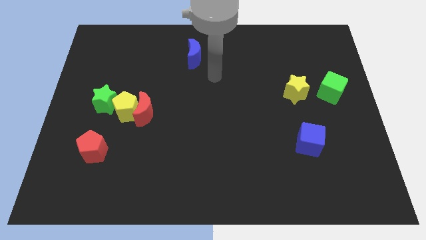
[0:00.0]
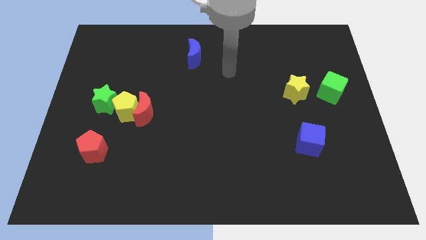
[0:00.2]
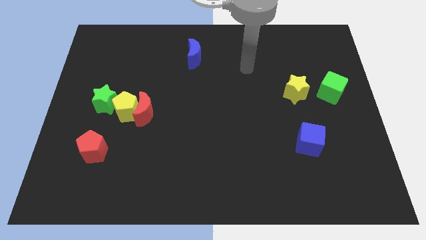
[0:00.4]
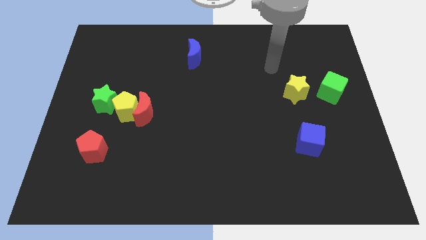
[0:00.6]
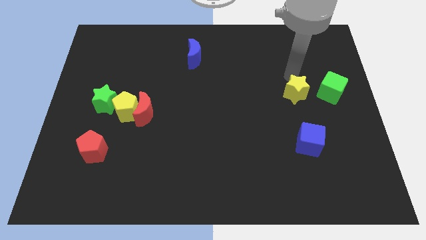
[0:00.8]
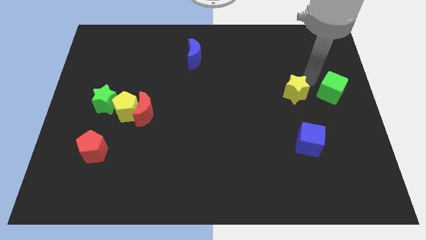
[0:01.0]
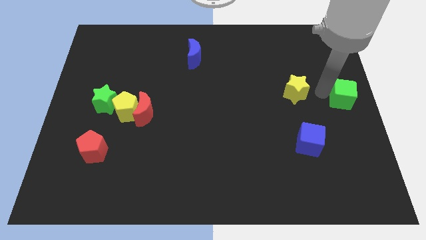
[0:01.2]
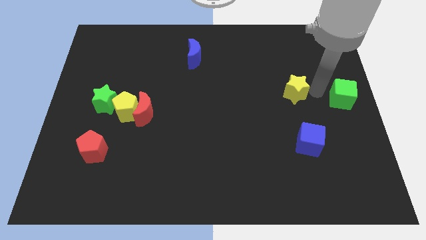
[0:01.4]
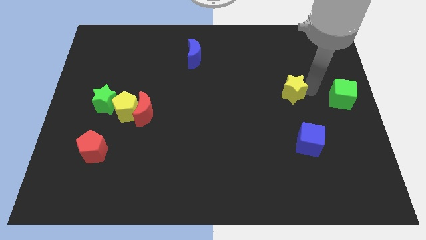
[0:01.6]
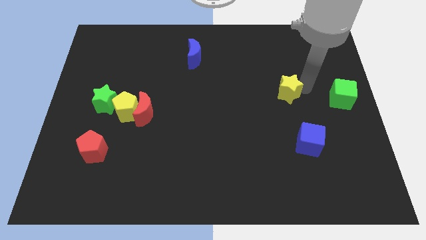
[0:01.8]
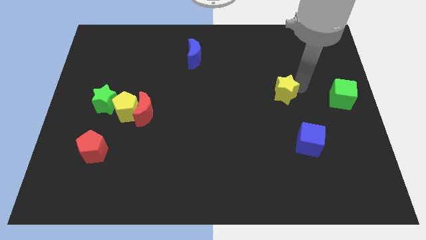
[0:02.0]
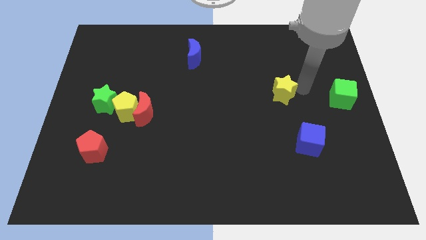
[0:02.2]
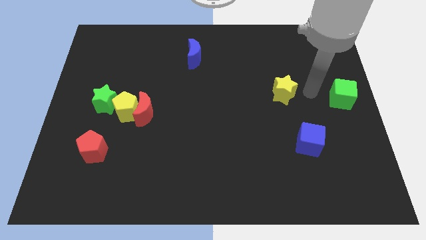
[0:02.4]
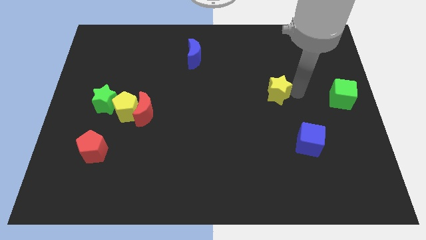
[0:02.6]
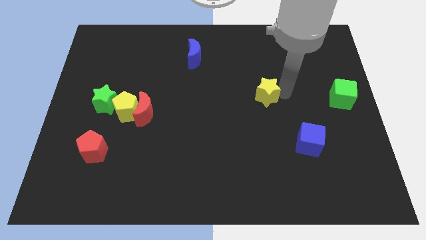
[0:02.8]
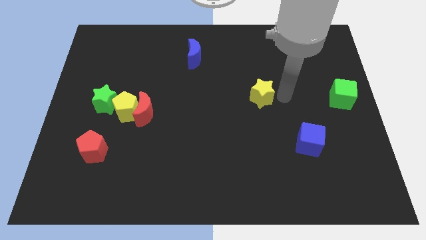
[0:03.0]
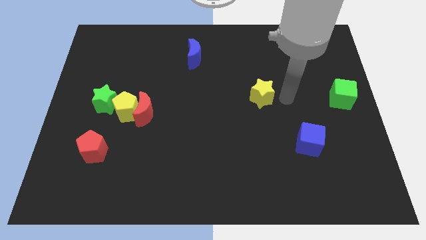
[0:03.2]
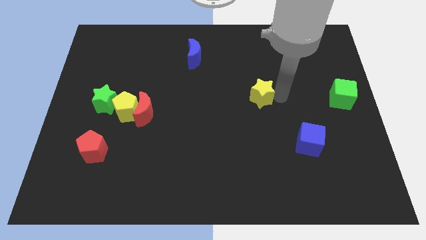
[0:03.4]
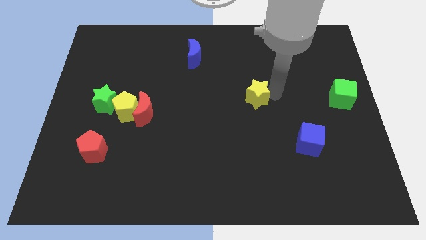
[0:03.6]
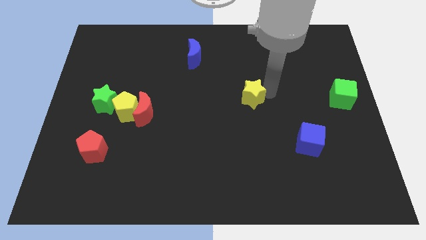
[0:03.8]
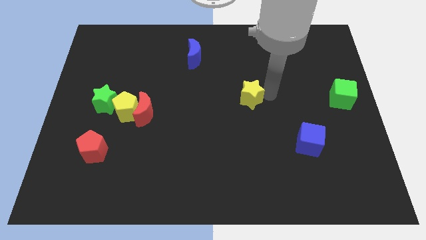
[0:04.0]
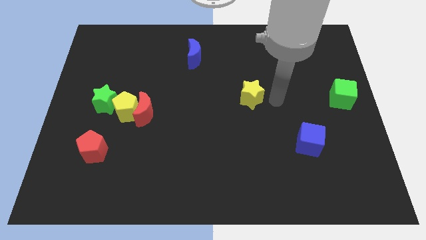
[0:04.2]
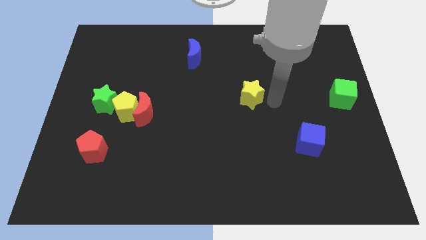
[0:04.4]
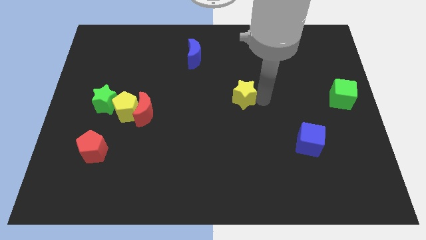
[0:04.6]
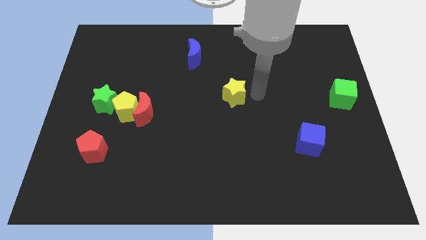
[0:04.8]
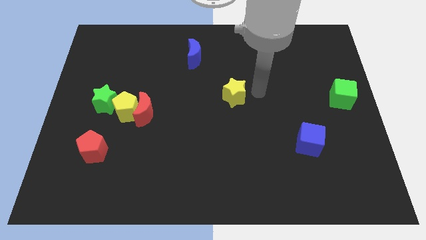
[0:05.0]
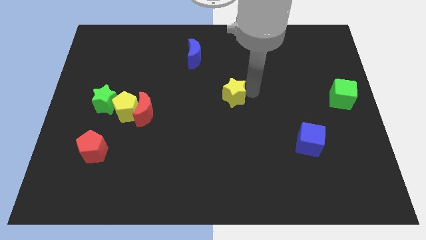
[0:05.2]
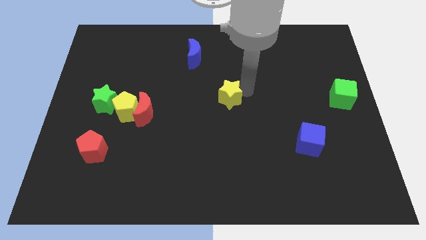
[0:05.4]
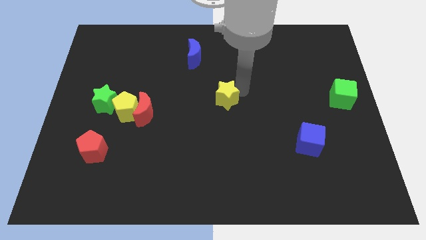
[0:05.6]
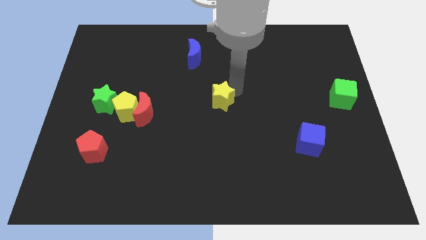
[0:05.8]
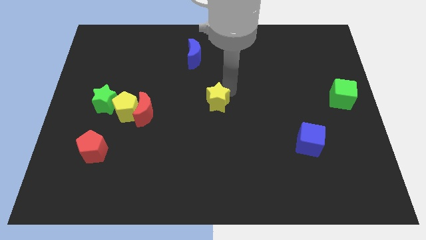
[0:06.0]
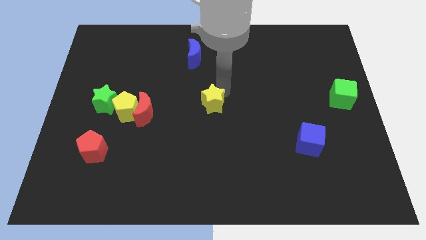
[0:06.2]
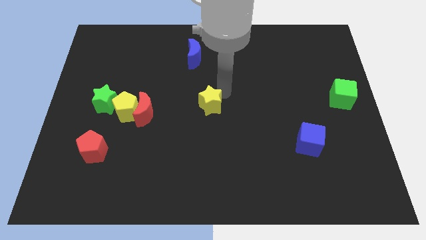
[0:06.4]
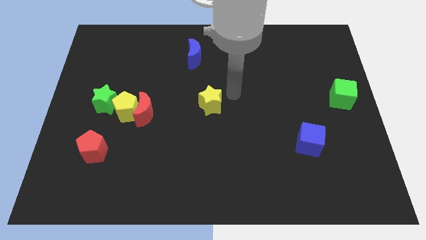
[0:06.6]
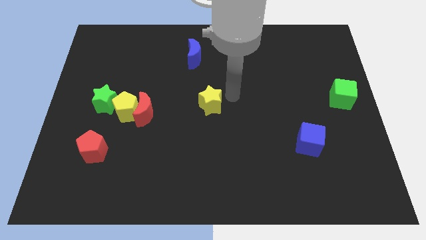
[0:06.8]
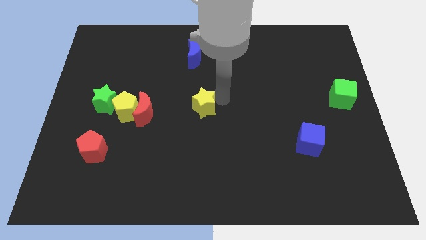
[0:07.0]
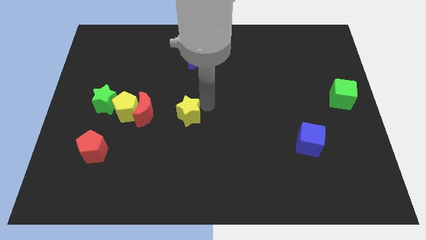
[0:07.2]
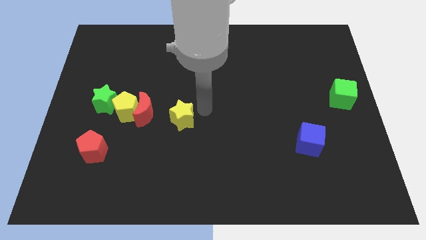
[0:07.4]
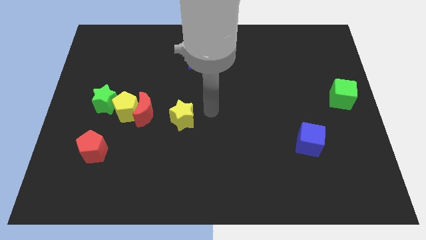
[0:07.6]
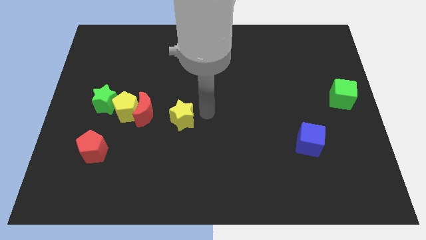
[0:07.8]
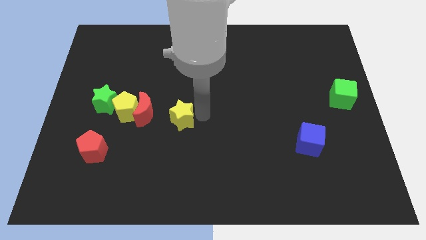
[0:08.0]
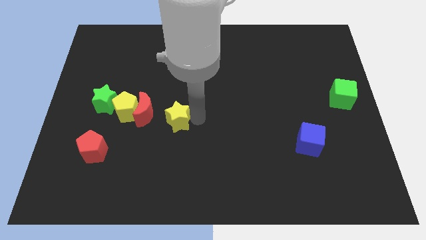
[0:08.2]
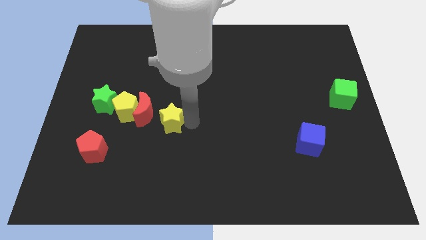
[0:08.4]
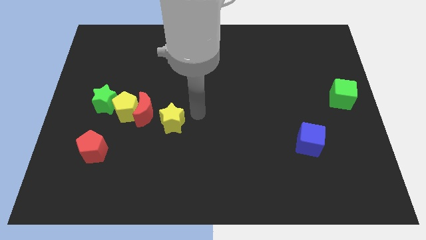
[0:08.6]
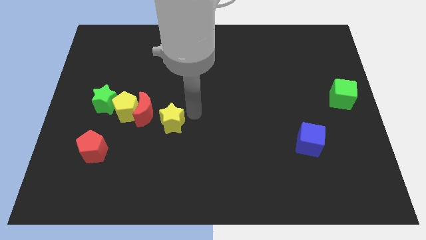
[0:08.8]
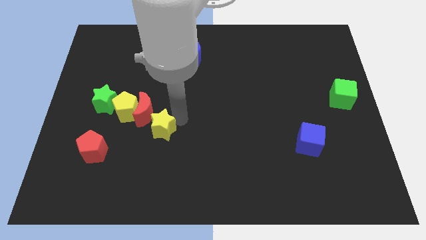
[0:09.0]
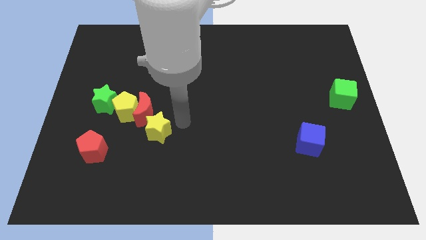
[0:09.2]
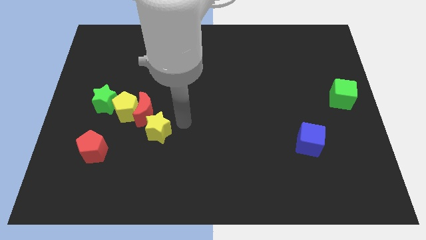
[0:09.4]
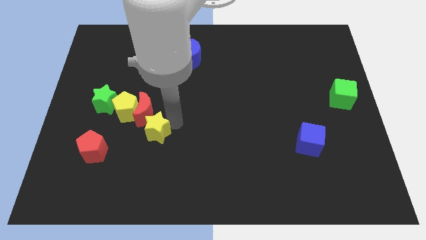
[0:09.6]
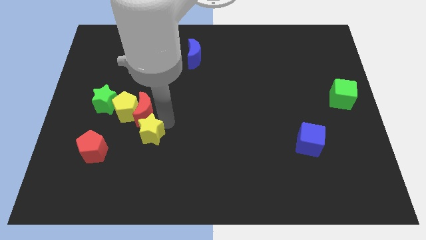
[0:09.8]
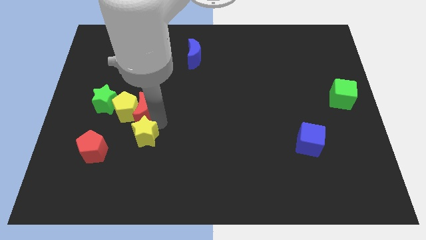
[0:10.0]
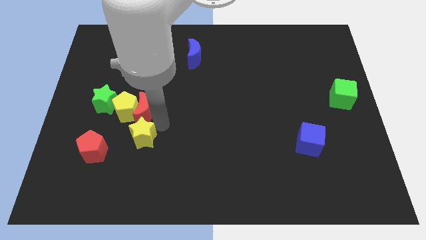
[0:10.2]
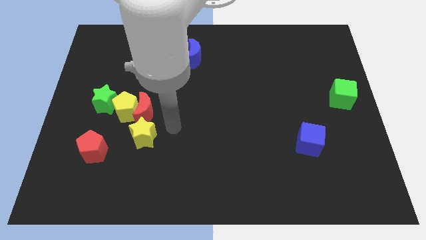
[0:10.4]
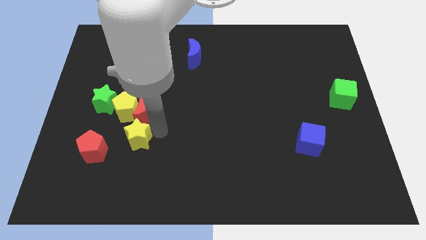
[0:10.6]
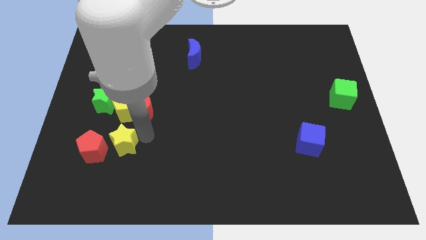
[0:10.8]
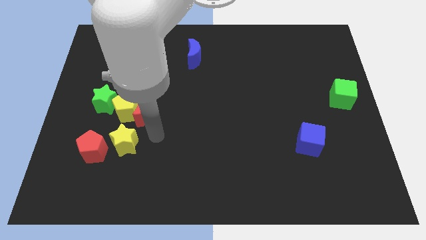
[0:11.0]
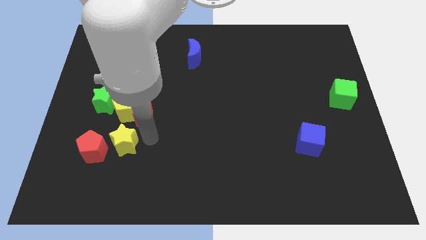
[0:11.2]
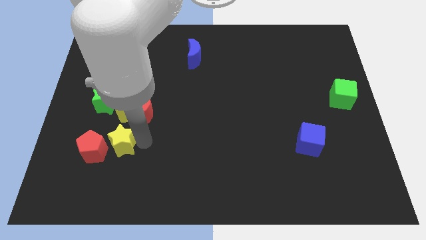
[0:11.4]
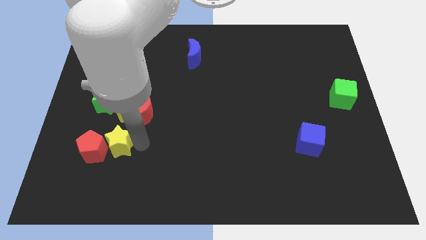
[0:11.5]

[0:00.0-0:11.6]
push the yellow star to the red pentagon

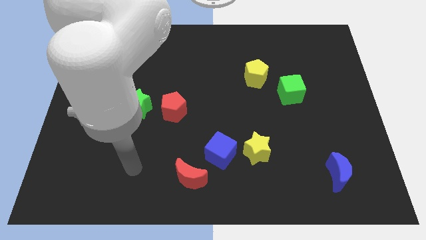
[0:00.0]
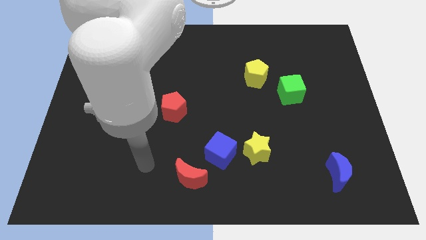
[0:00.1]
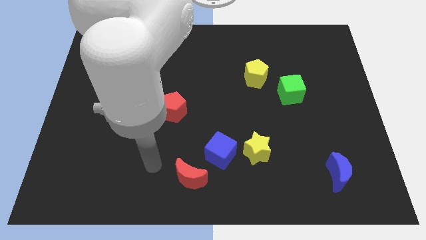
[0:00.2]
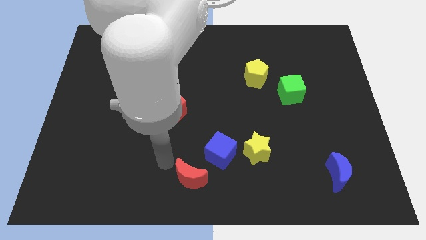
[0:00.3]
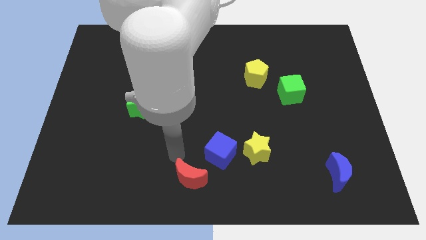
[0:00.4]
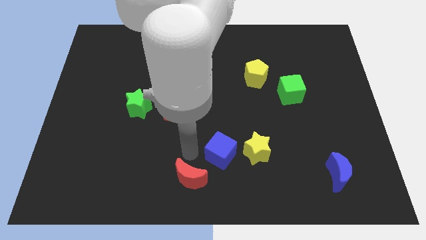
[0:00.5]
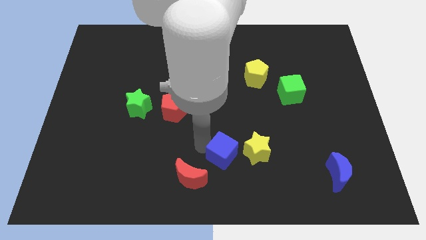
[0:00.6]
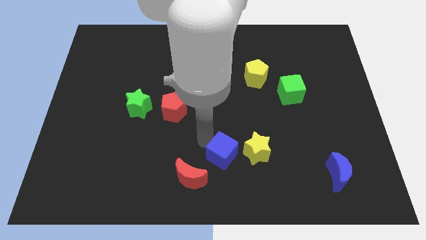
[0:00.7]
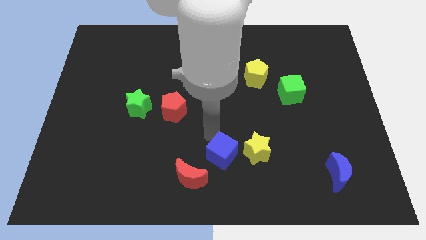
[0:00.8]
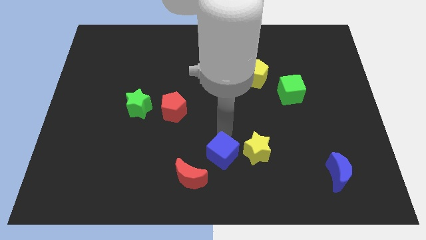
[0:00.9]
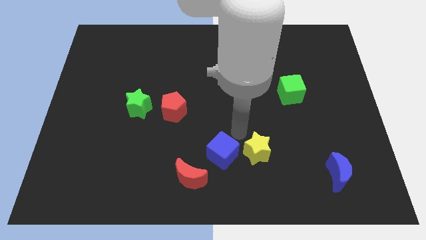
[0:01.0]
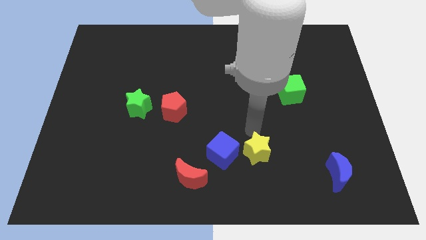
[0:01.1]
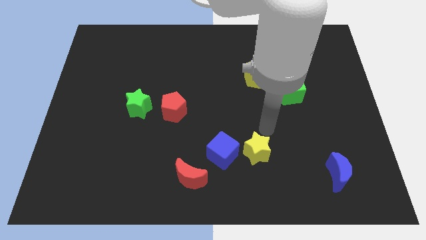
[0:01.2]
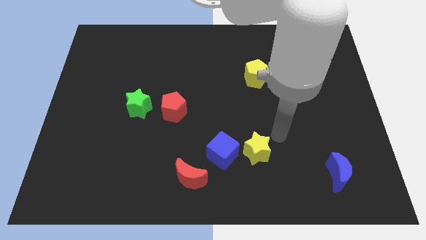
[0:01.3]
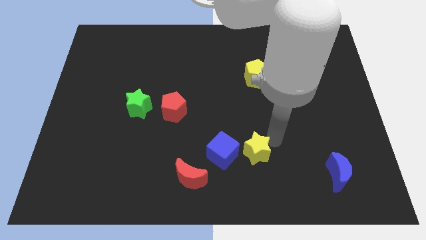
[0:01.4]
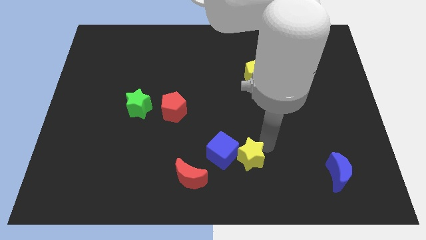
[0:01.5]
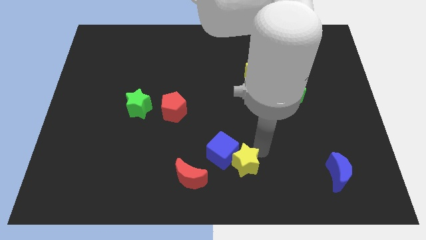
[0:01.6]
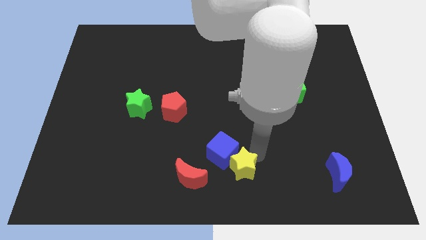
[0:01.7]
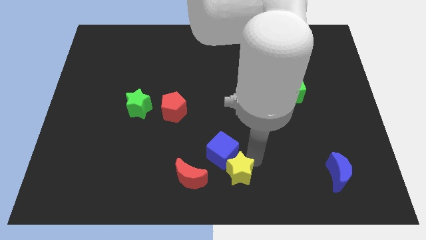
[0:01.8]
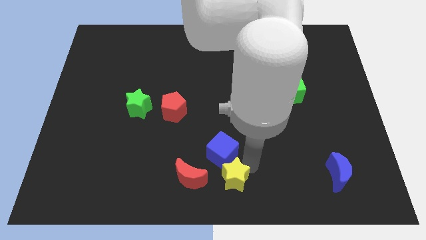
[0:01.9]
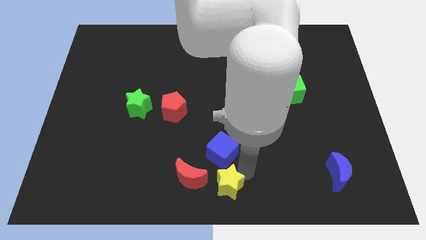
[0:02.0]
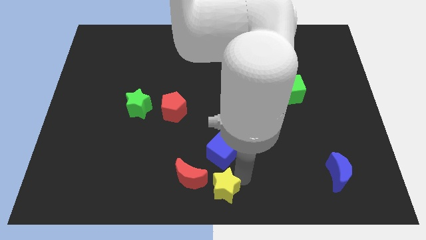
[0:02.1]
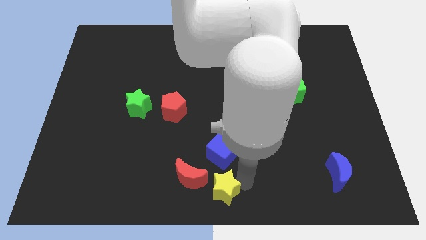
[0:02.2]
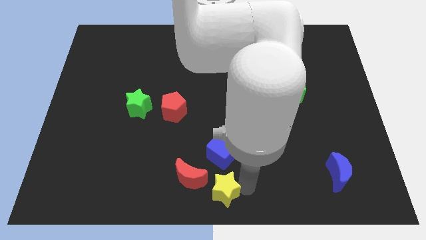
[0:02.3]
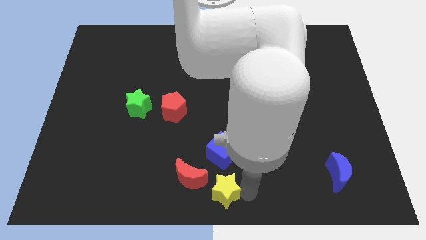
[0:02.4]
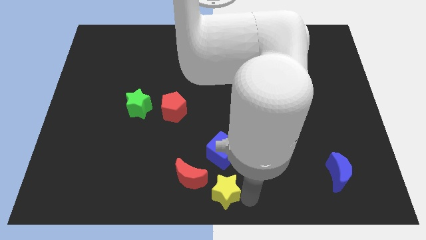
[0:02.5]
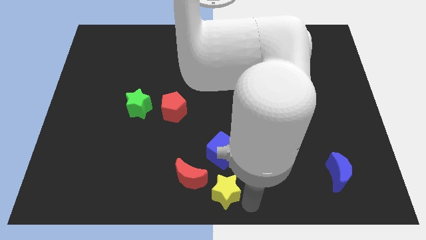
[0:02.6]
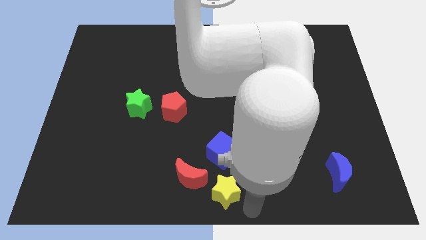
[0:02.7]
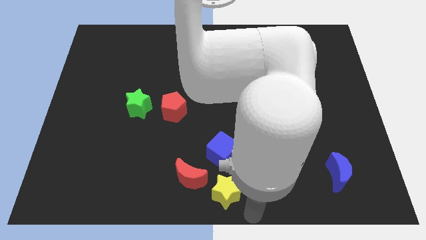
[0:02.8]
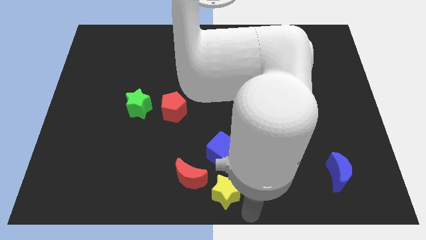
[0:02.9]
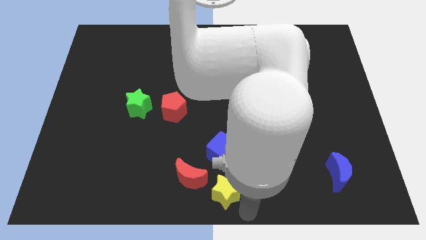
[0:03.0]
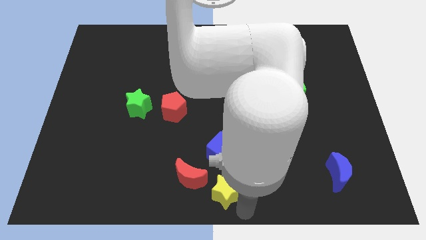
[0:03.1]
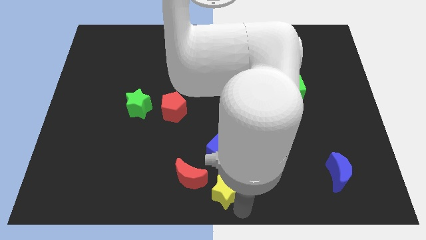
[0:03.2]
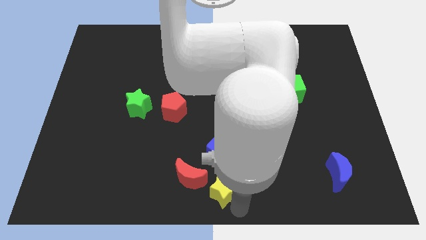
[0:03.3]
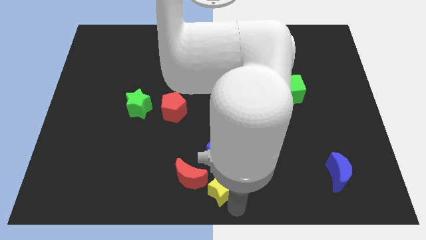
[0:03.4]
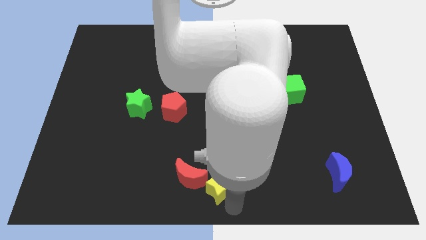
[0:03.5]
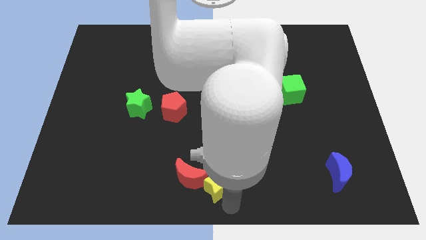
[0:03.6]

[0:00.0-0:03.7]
slide the yellow star close to the red moon
